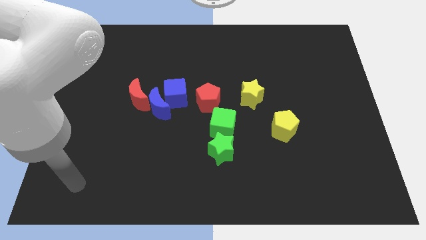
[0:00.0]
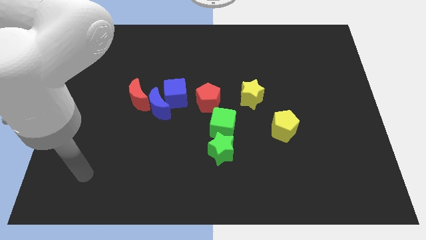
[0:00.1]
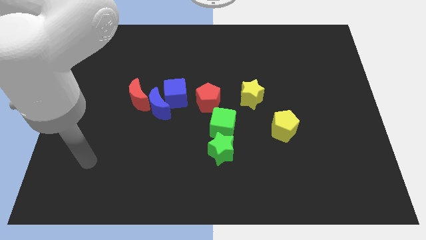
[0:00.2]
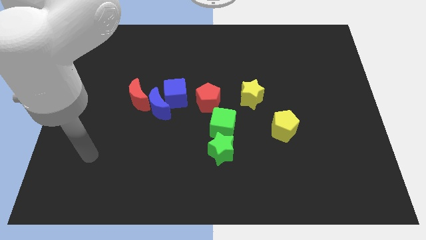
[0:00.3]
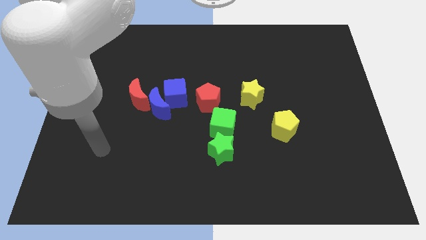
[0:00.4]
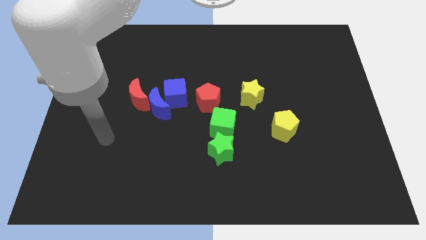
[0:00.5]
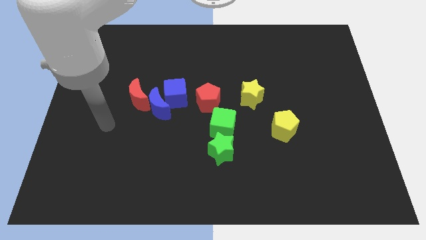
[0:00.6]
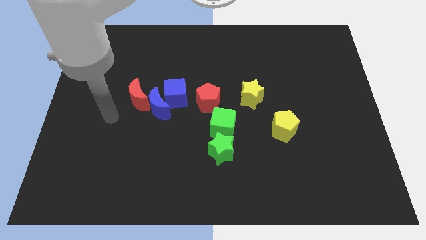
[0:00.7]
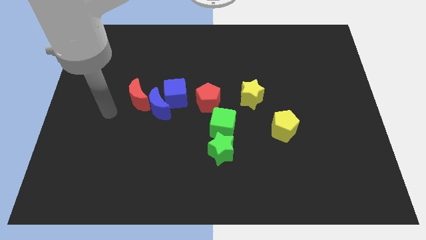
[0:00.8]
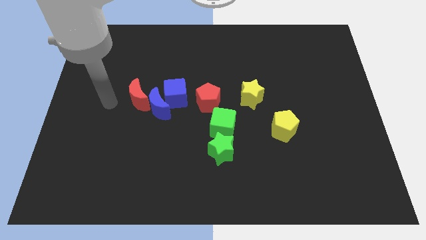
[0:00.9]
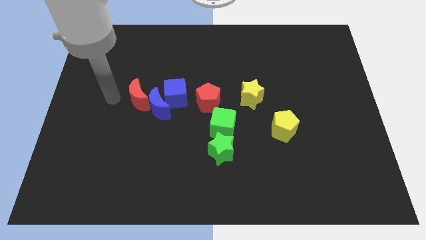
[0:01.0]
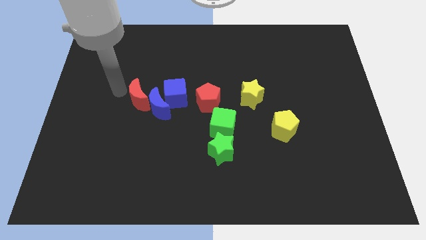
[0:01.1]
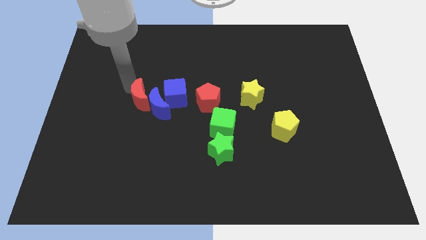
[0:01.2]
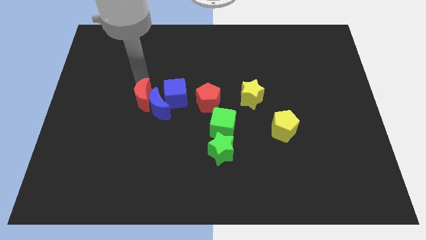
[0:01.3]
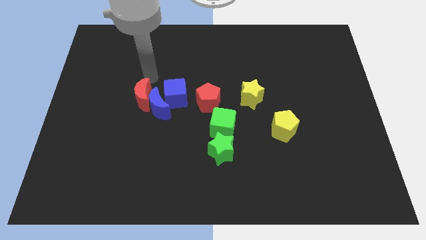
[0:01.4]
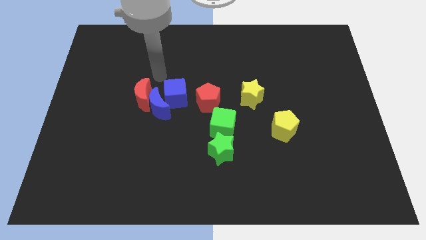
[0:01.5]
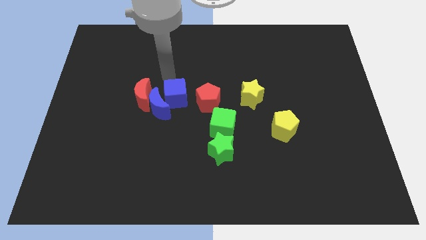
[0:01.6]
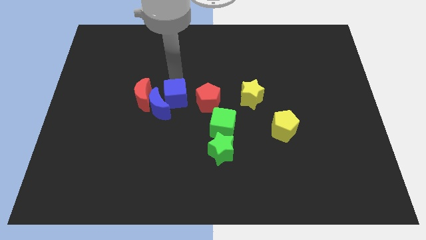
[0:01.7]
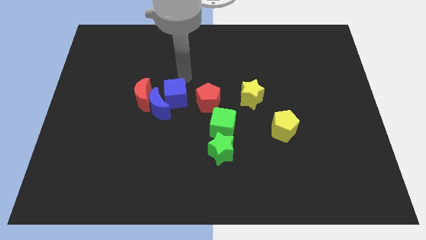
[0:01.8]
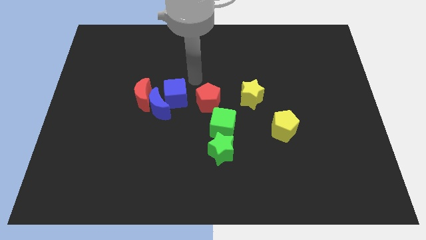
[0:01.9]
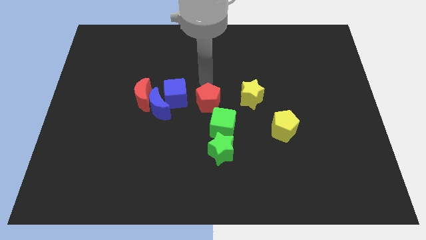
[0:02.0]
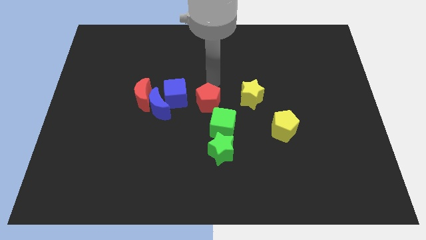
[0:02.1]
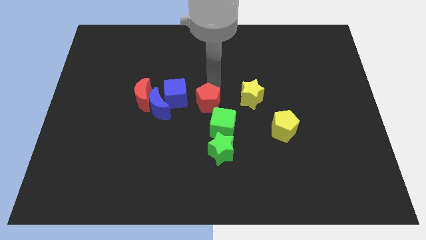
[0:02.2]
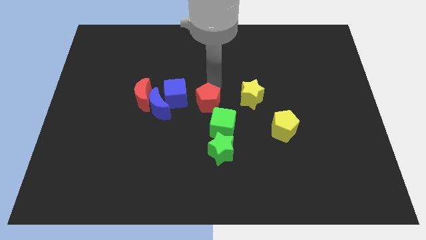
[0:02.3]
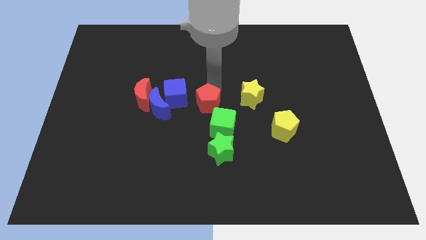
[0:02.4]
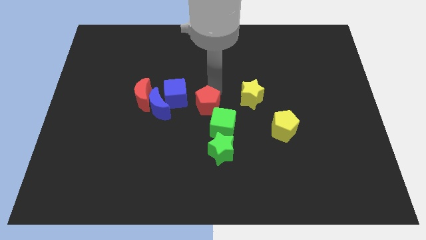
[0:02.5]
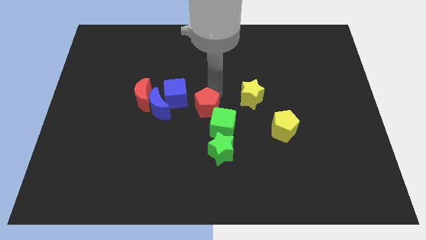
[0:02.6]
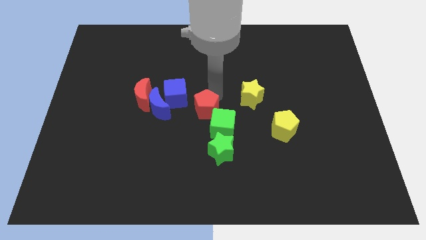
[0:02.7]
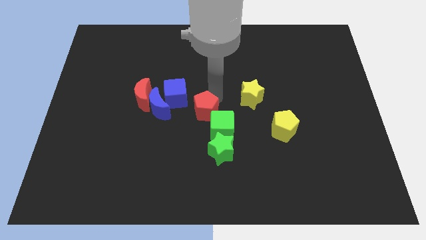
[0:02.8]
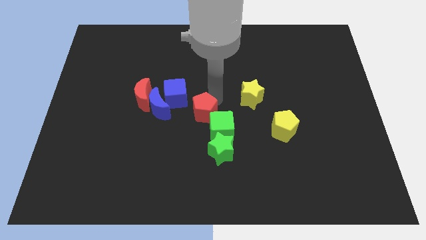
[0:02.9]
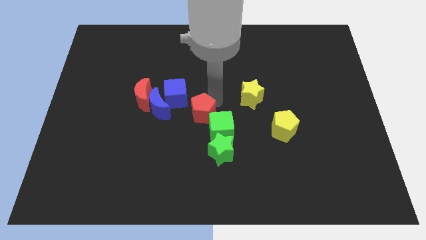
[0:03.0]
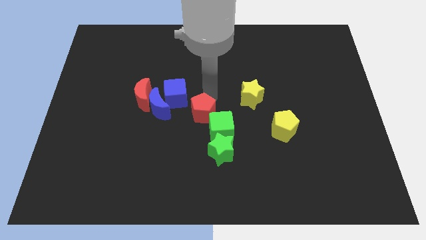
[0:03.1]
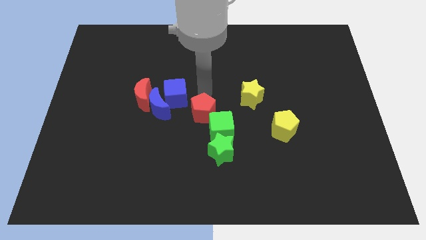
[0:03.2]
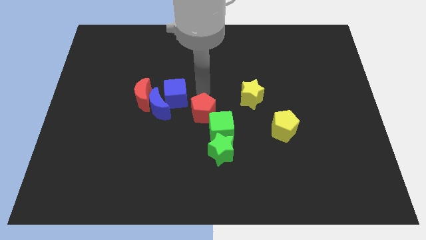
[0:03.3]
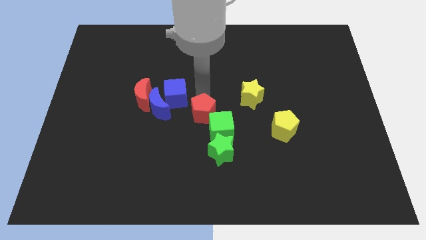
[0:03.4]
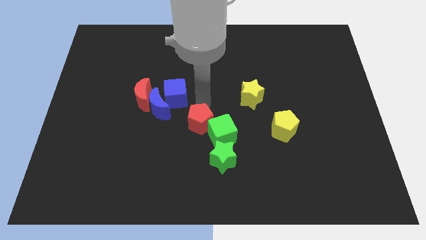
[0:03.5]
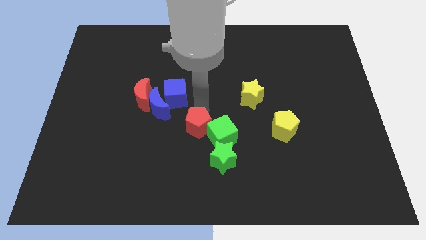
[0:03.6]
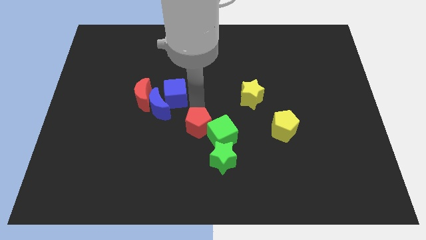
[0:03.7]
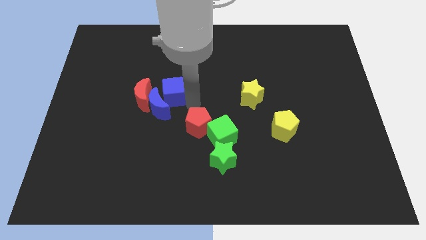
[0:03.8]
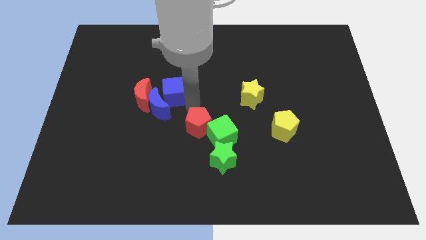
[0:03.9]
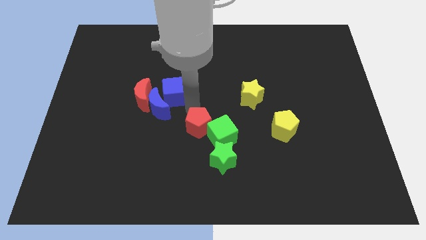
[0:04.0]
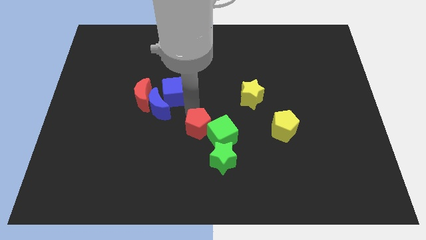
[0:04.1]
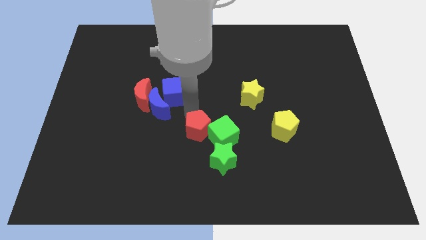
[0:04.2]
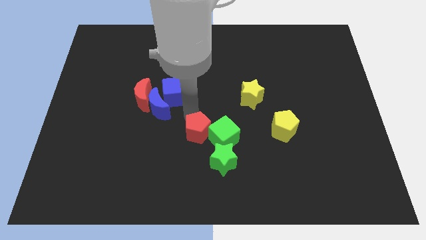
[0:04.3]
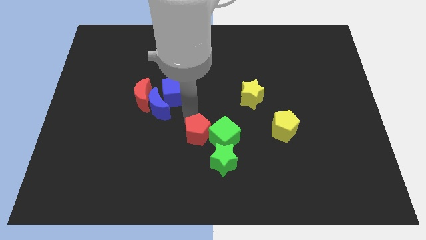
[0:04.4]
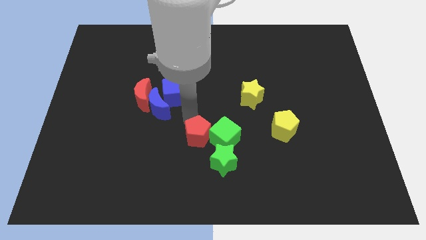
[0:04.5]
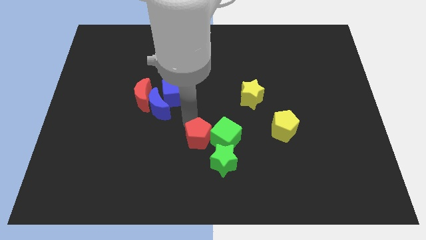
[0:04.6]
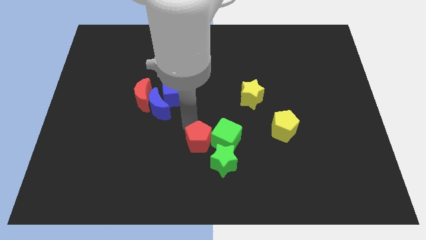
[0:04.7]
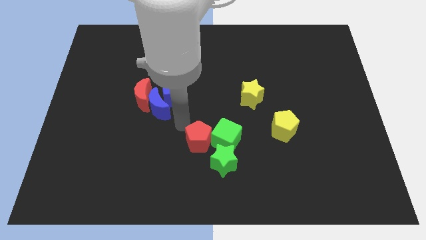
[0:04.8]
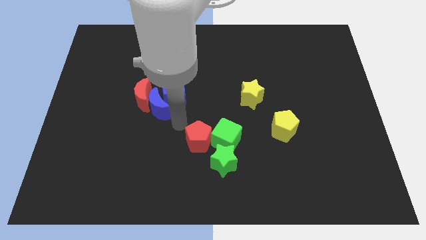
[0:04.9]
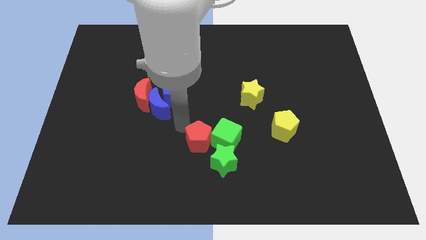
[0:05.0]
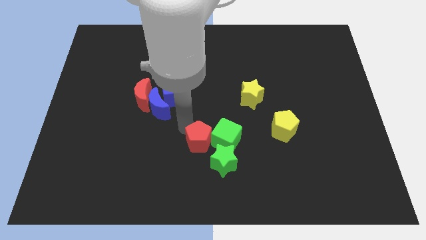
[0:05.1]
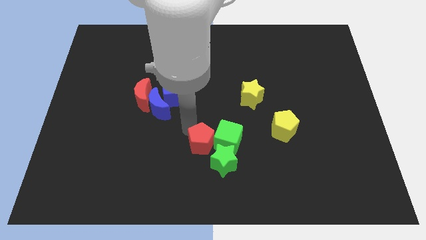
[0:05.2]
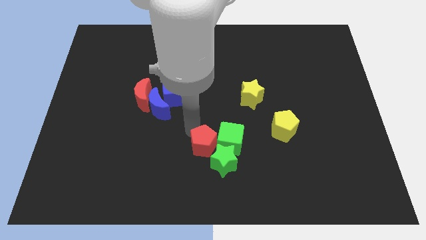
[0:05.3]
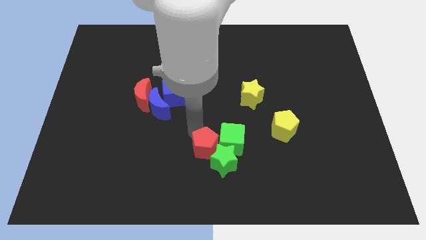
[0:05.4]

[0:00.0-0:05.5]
move the red pentagon close to the green star

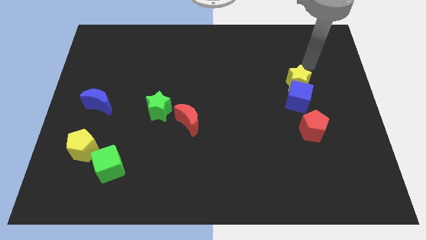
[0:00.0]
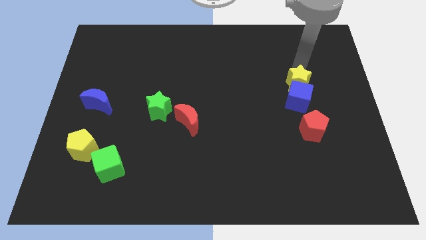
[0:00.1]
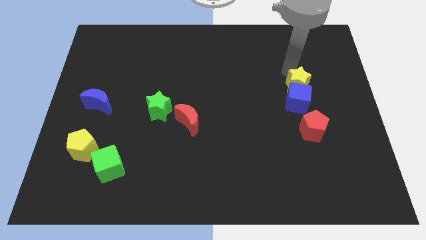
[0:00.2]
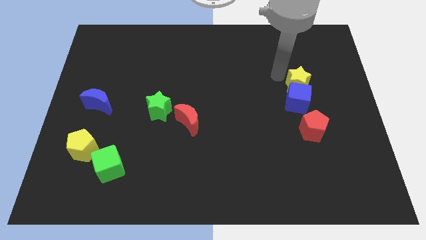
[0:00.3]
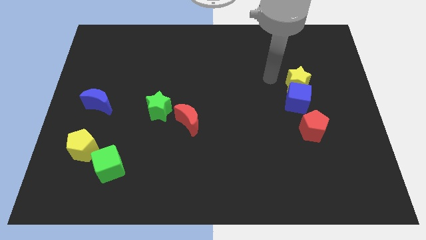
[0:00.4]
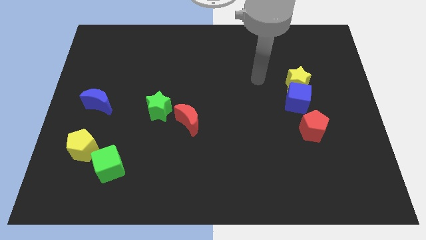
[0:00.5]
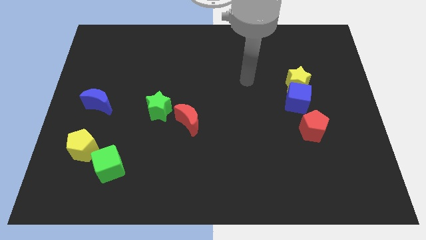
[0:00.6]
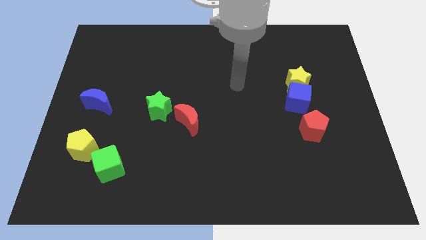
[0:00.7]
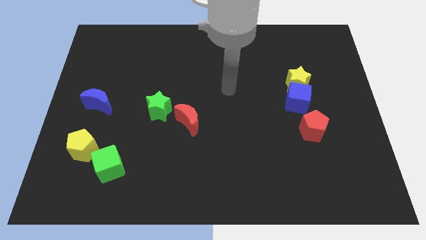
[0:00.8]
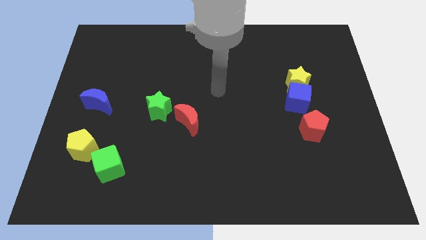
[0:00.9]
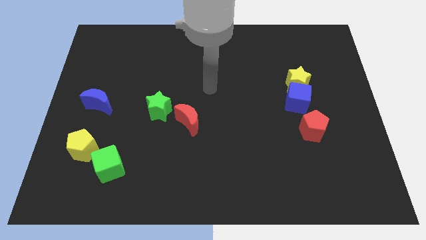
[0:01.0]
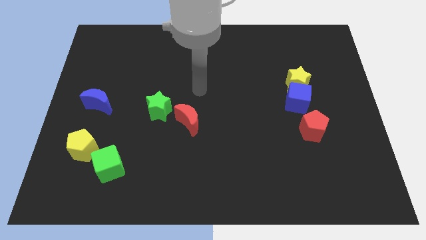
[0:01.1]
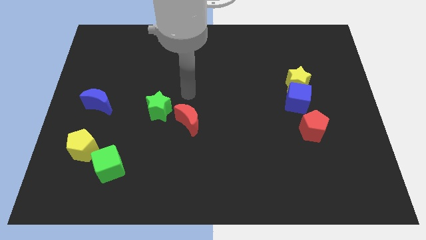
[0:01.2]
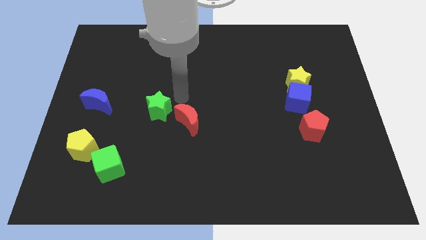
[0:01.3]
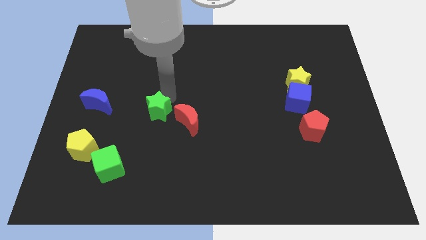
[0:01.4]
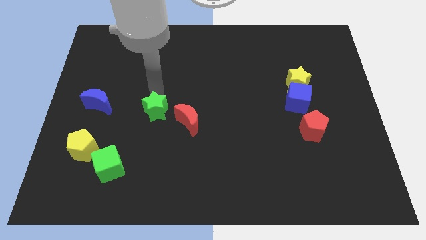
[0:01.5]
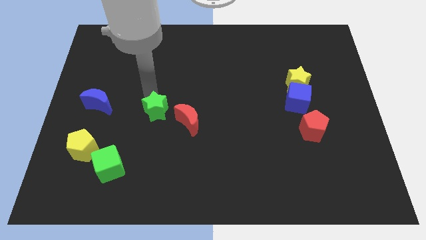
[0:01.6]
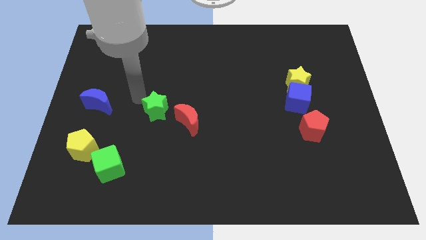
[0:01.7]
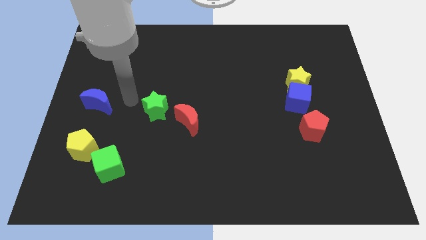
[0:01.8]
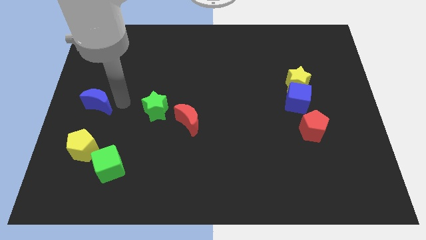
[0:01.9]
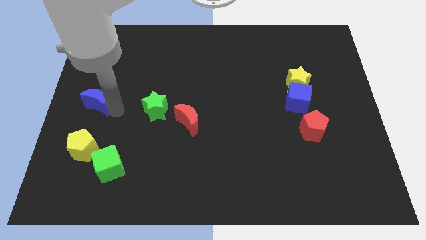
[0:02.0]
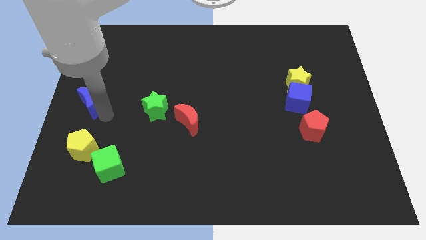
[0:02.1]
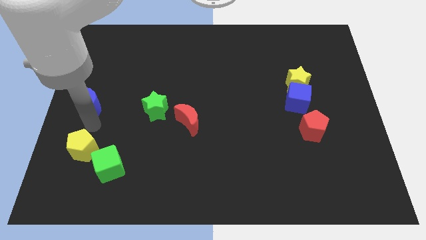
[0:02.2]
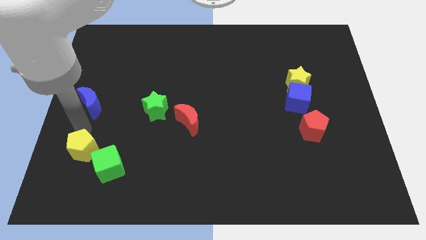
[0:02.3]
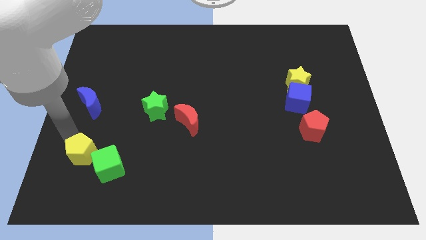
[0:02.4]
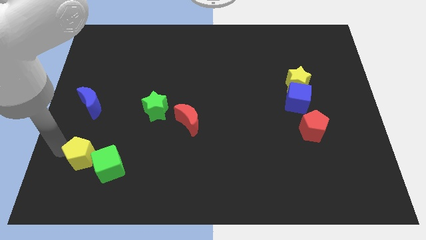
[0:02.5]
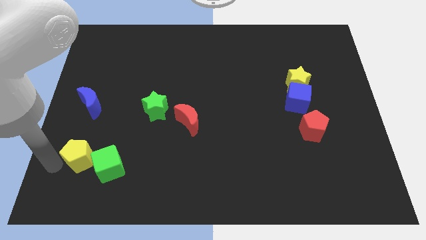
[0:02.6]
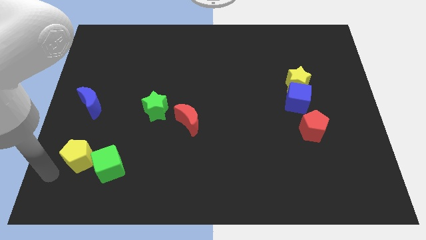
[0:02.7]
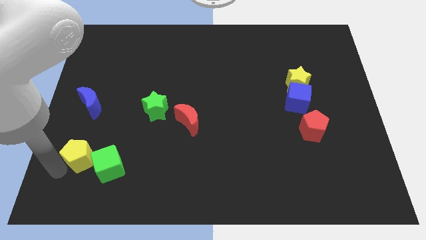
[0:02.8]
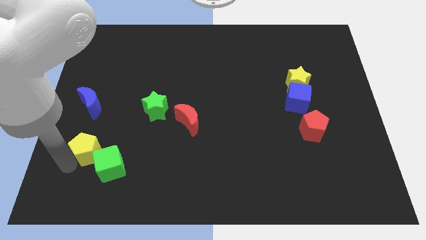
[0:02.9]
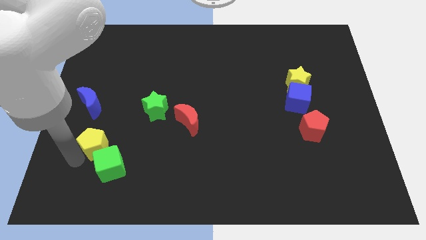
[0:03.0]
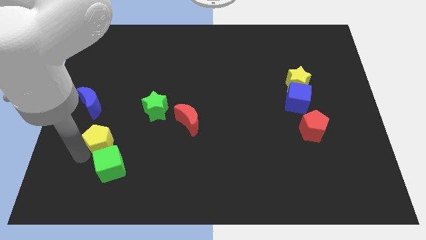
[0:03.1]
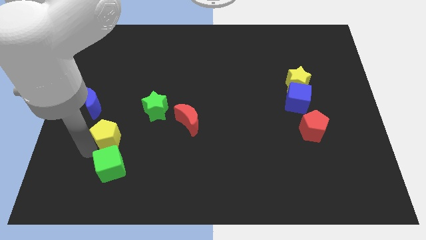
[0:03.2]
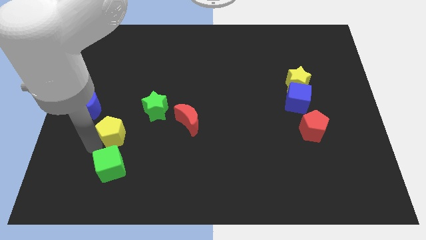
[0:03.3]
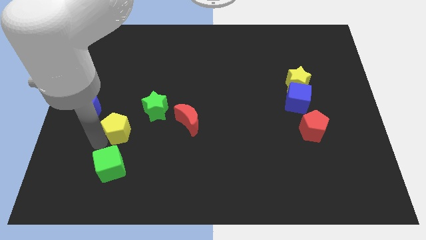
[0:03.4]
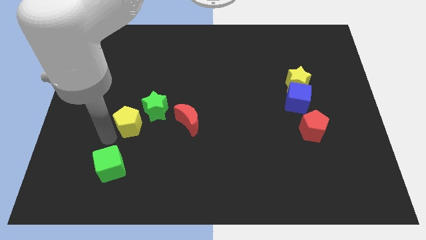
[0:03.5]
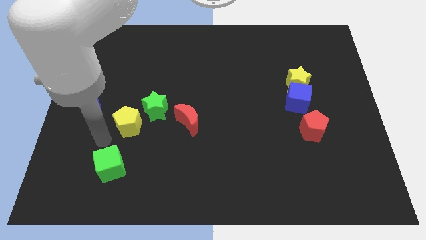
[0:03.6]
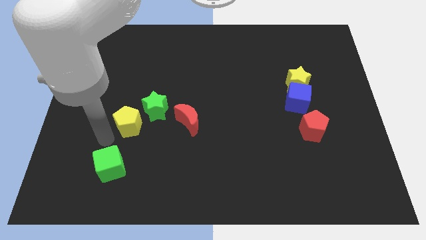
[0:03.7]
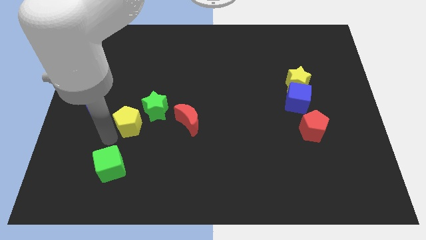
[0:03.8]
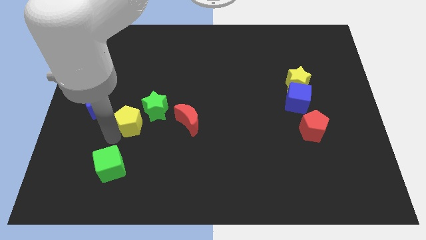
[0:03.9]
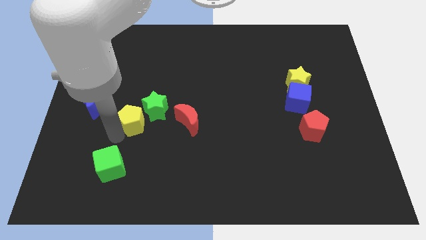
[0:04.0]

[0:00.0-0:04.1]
slide the yellow pentagon close to the green star
